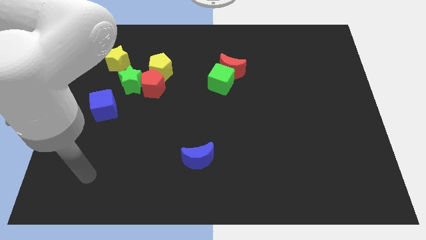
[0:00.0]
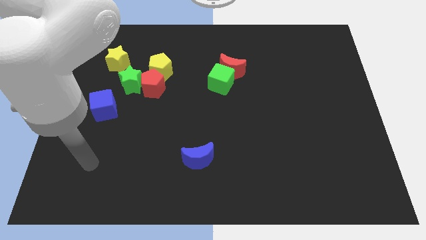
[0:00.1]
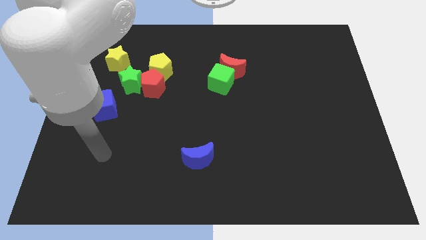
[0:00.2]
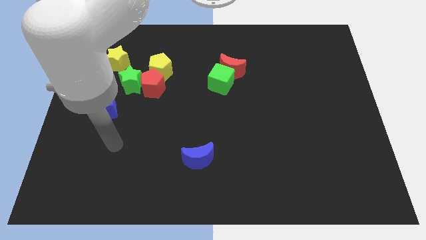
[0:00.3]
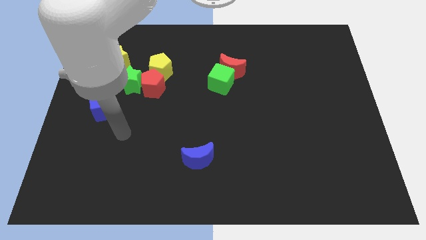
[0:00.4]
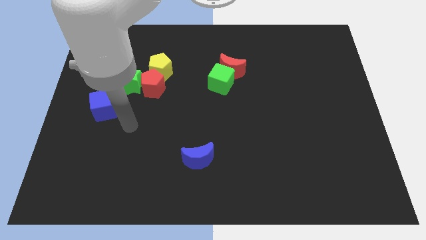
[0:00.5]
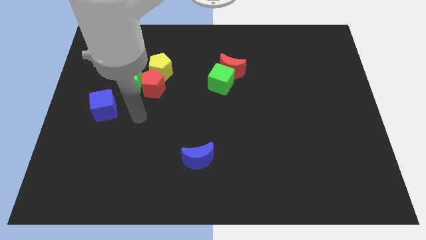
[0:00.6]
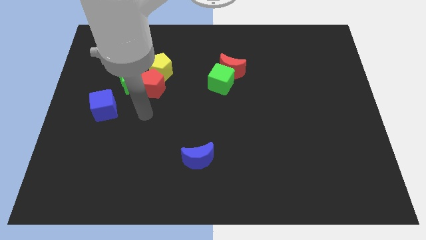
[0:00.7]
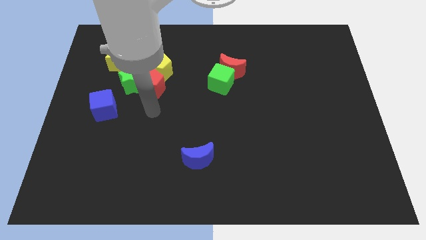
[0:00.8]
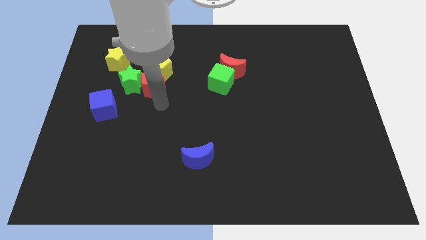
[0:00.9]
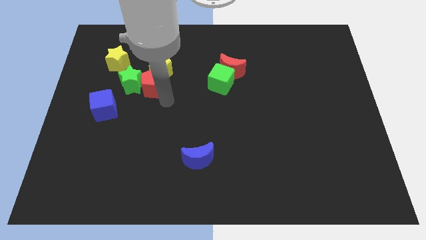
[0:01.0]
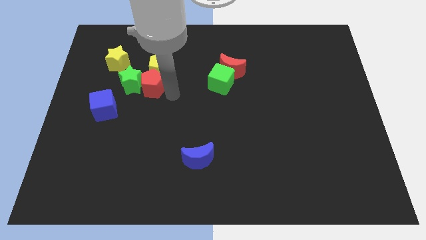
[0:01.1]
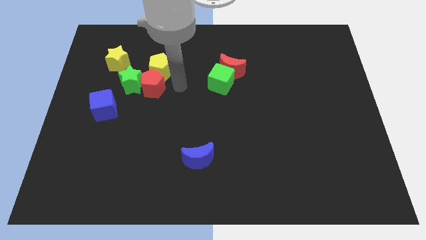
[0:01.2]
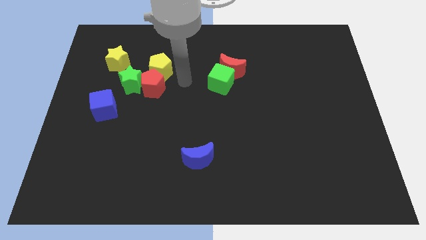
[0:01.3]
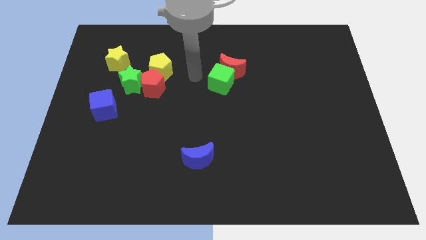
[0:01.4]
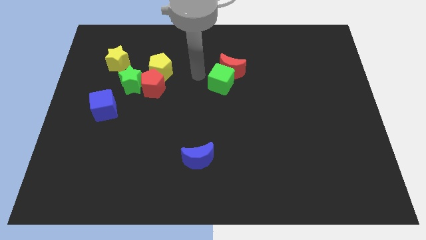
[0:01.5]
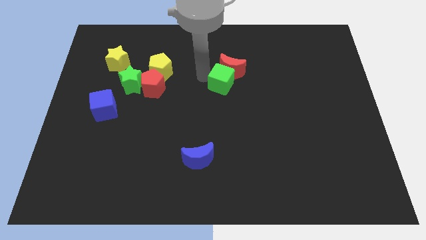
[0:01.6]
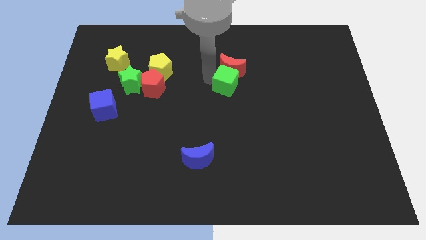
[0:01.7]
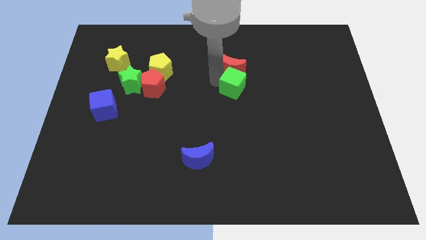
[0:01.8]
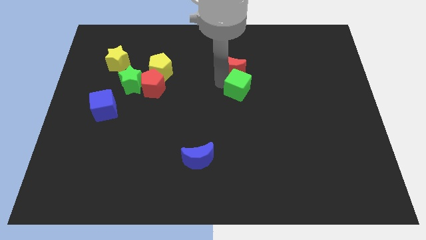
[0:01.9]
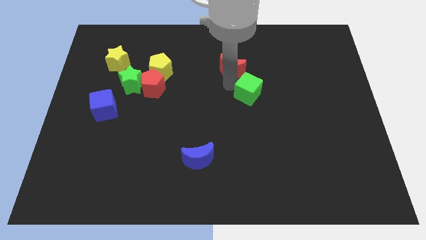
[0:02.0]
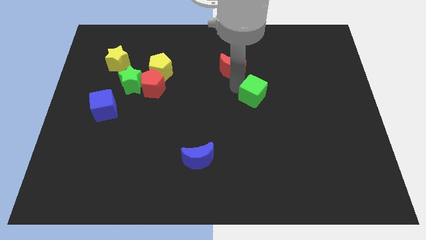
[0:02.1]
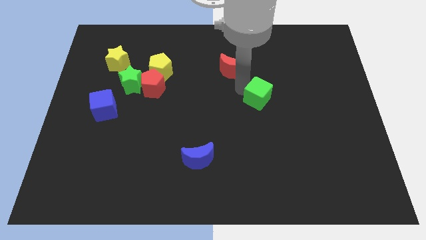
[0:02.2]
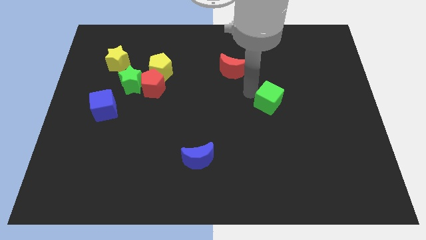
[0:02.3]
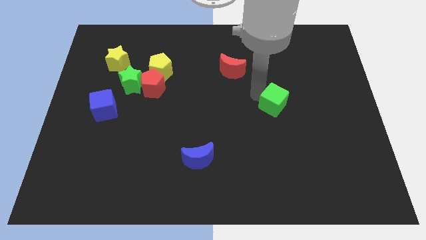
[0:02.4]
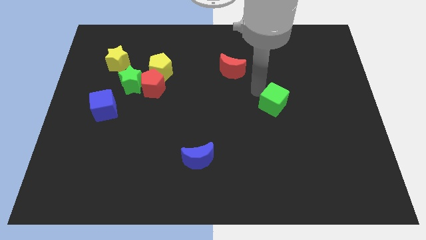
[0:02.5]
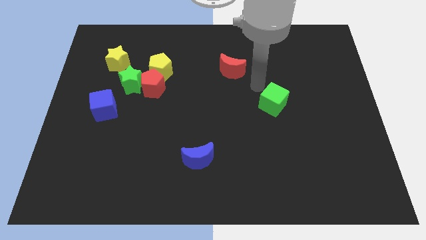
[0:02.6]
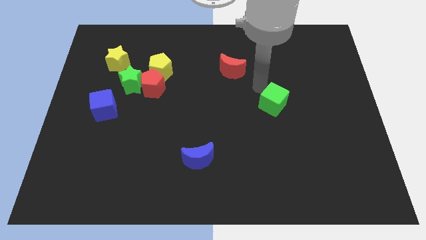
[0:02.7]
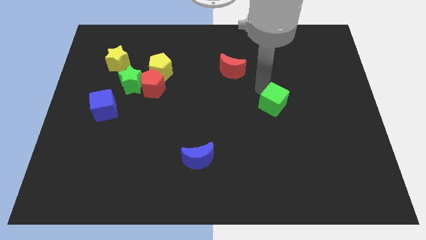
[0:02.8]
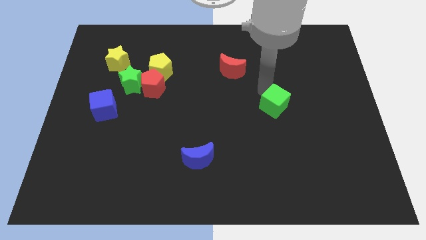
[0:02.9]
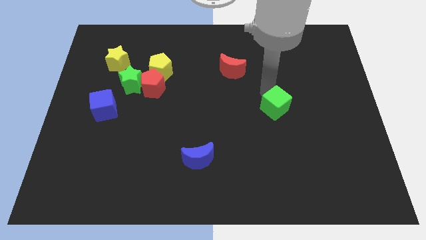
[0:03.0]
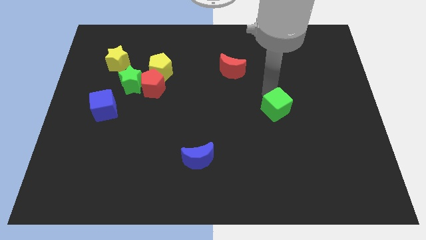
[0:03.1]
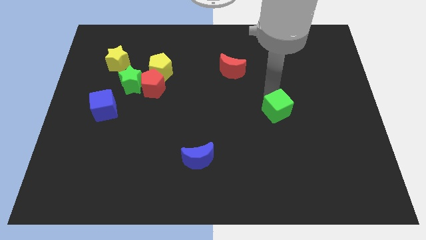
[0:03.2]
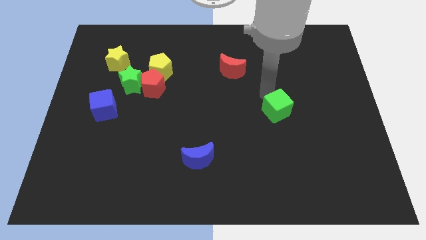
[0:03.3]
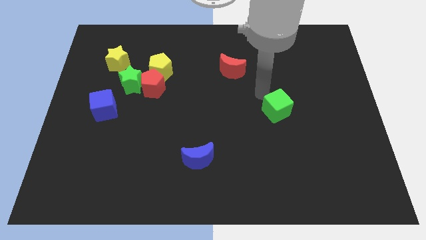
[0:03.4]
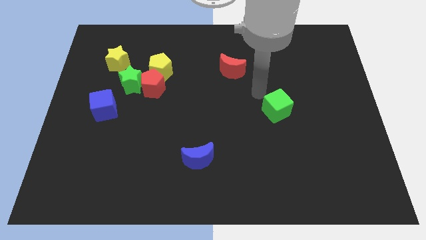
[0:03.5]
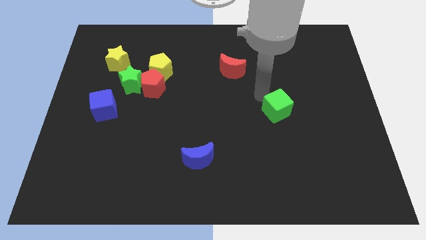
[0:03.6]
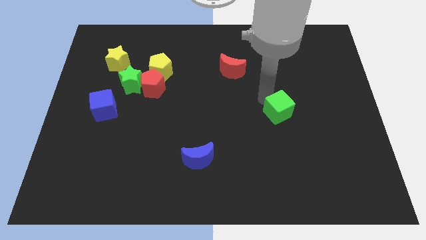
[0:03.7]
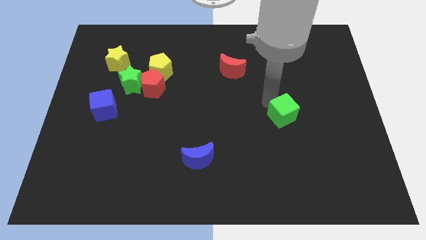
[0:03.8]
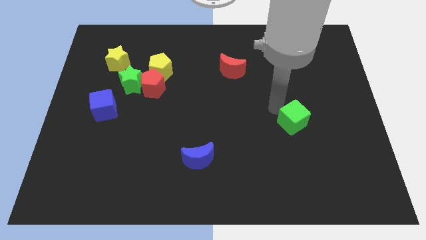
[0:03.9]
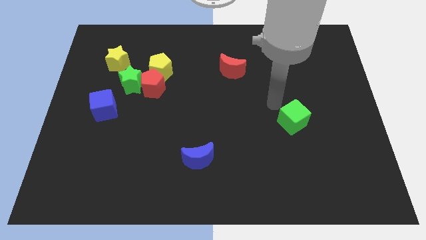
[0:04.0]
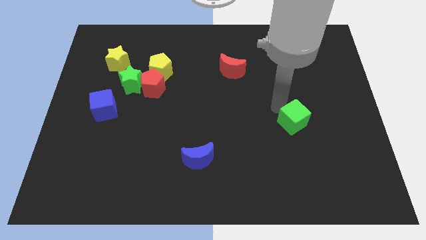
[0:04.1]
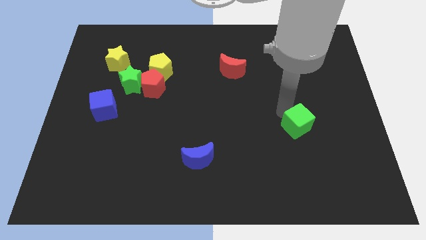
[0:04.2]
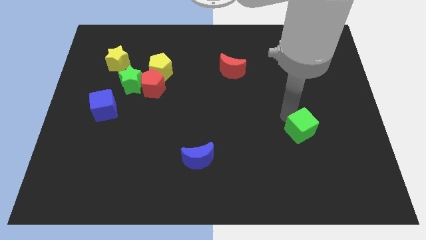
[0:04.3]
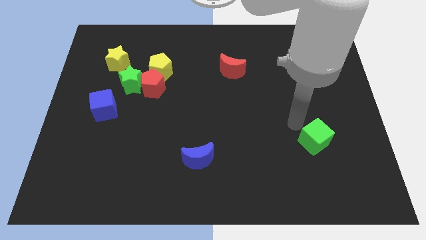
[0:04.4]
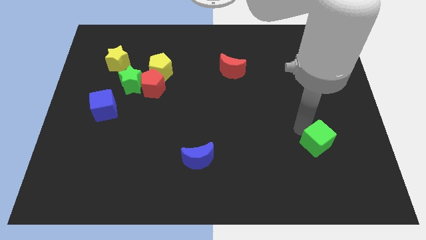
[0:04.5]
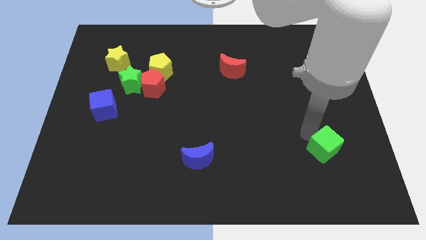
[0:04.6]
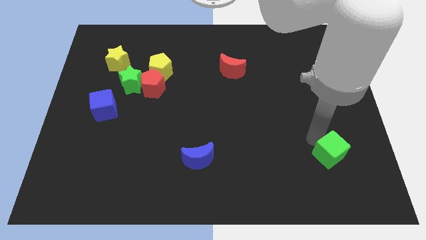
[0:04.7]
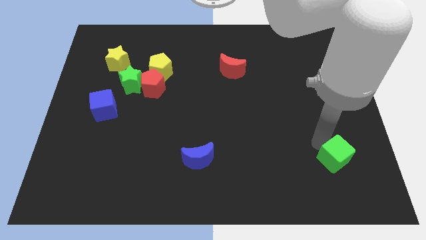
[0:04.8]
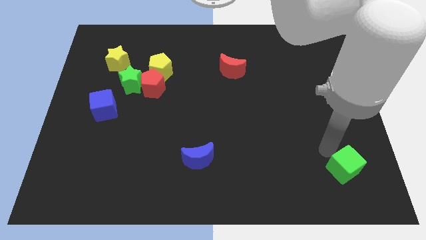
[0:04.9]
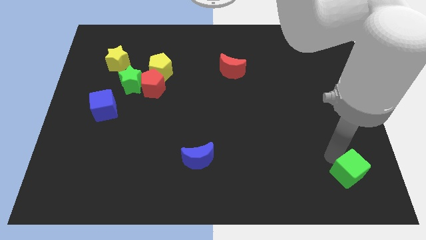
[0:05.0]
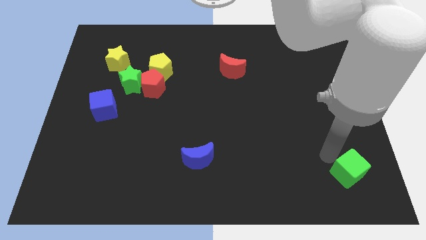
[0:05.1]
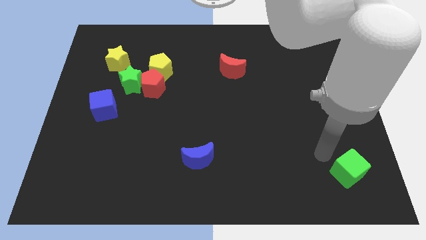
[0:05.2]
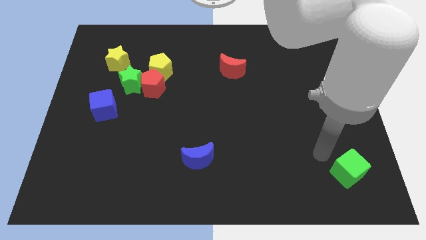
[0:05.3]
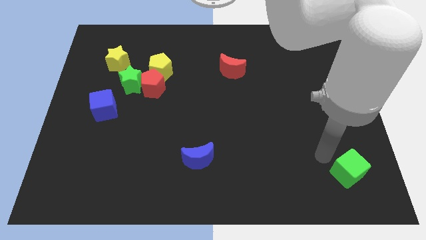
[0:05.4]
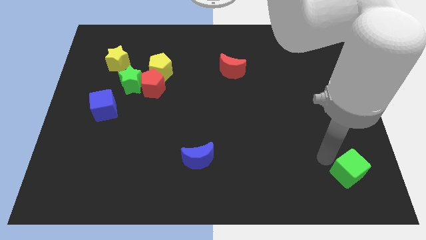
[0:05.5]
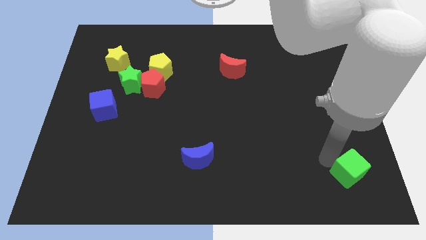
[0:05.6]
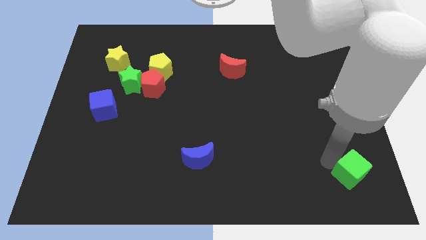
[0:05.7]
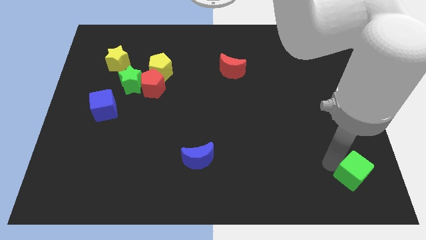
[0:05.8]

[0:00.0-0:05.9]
move the green cube to the bottom right corner
